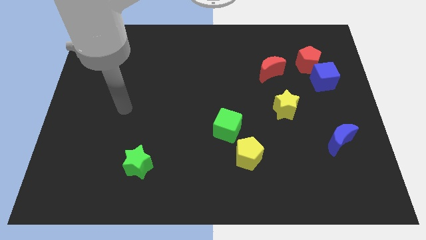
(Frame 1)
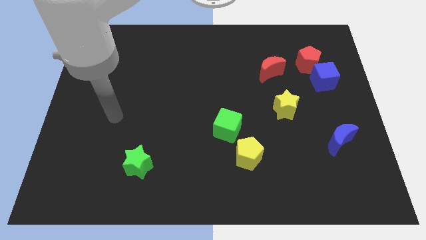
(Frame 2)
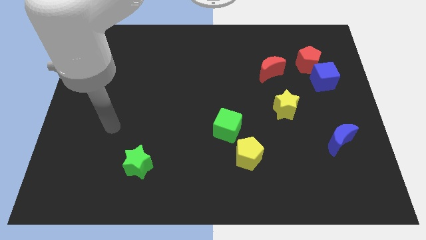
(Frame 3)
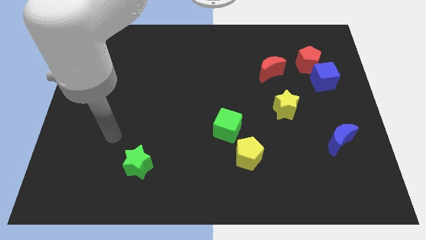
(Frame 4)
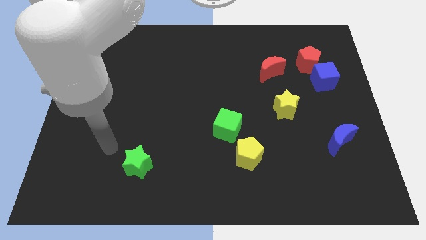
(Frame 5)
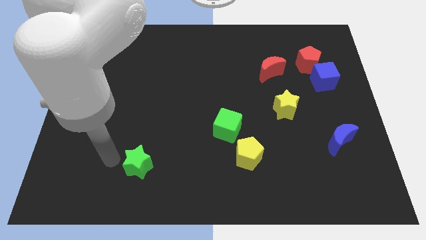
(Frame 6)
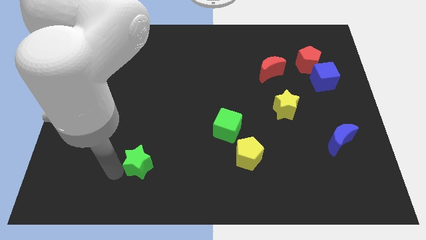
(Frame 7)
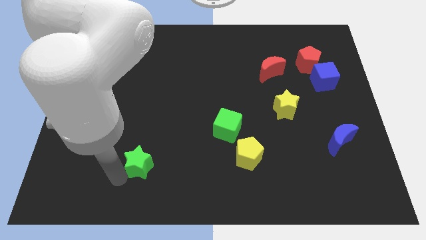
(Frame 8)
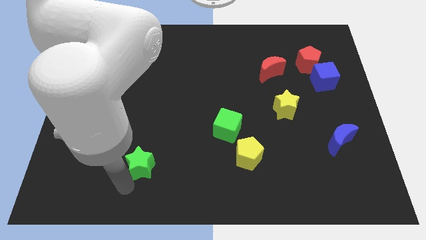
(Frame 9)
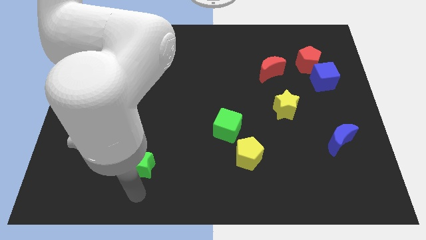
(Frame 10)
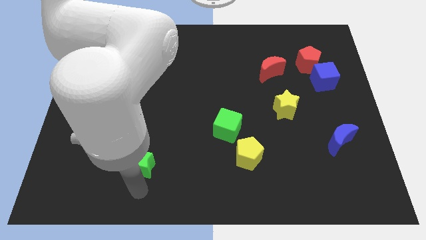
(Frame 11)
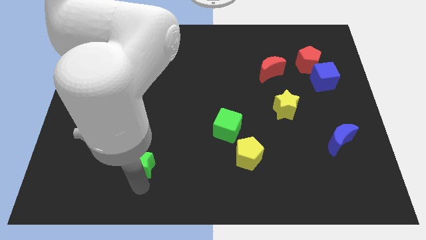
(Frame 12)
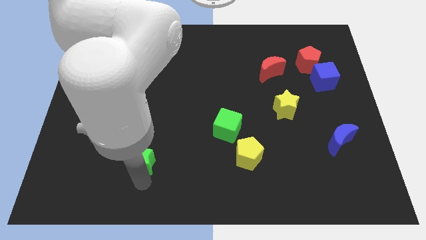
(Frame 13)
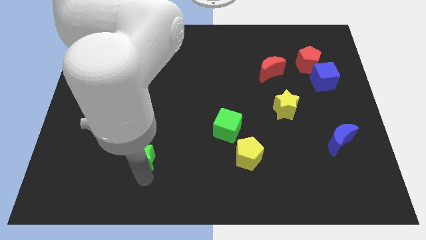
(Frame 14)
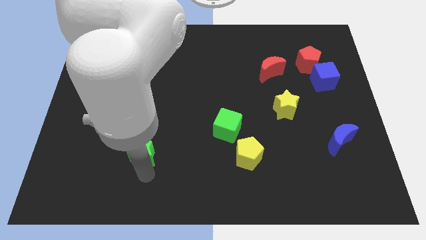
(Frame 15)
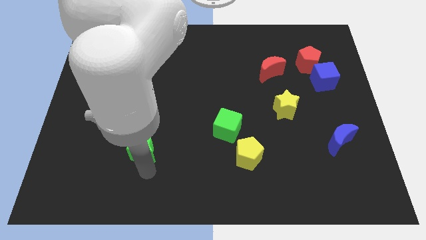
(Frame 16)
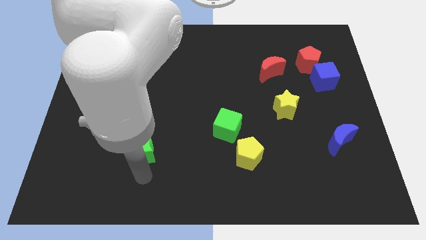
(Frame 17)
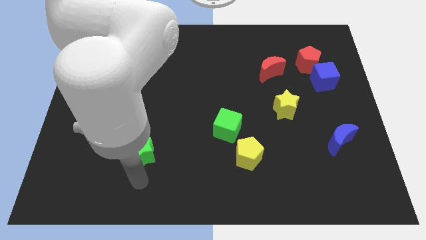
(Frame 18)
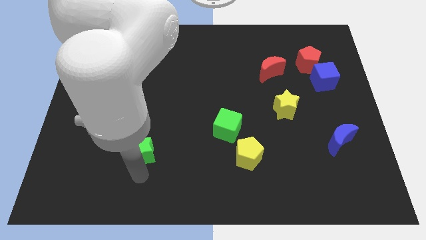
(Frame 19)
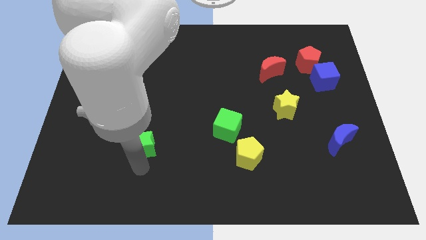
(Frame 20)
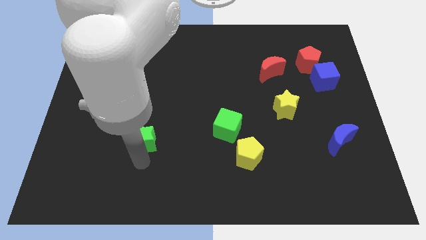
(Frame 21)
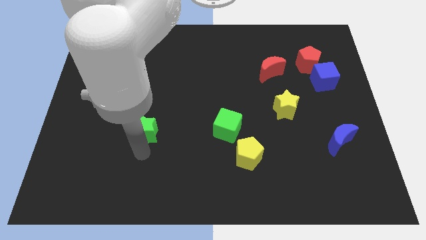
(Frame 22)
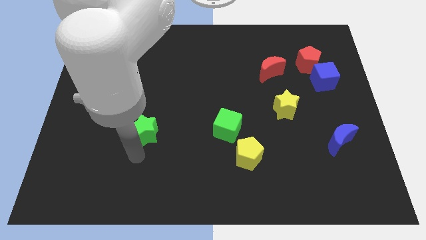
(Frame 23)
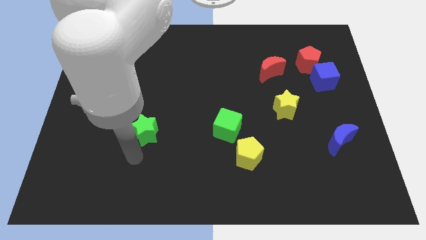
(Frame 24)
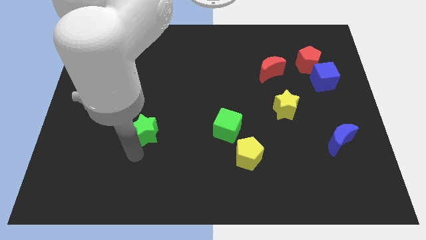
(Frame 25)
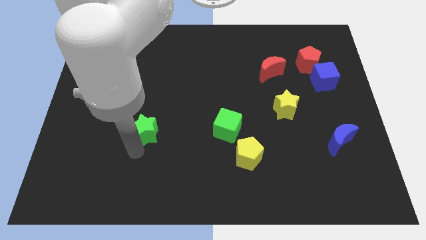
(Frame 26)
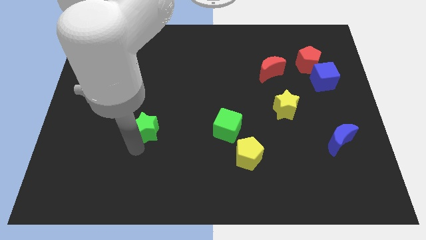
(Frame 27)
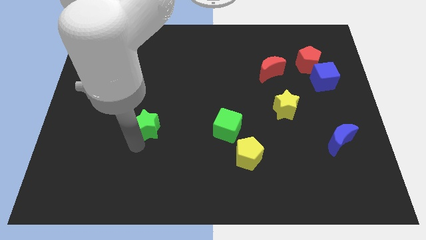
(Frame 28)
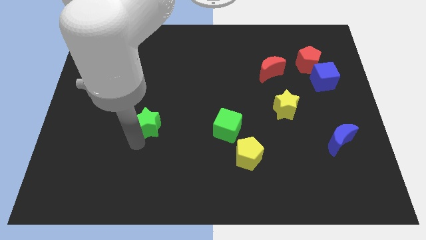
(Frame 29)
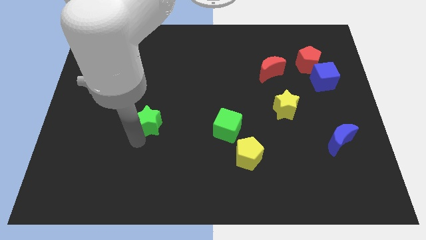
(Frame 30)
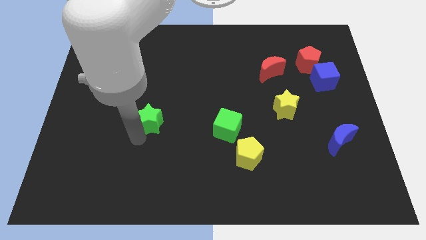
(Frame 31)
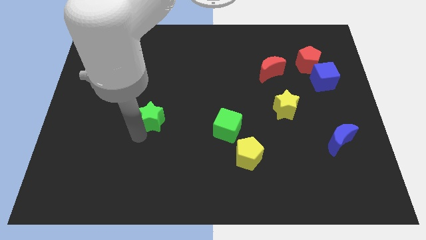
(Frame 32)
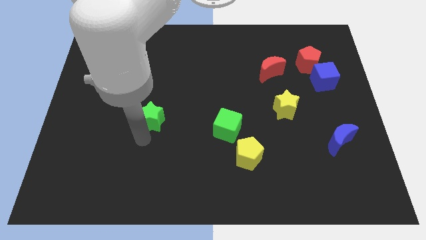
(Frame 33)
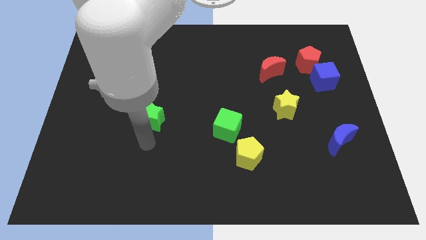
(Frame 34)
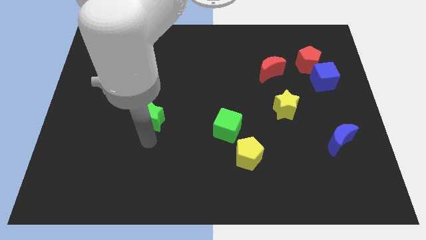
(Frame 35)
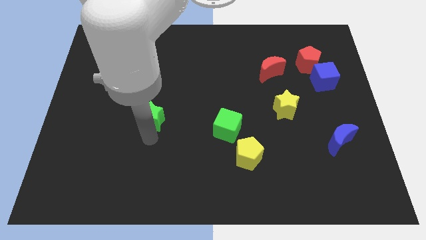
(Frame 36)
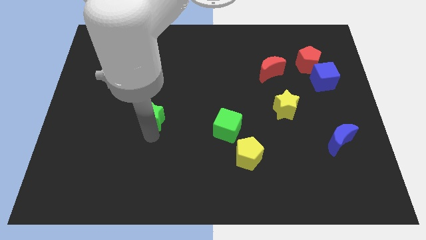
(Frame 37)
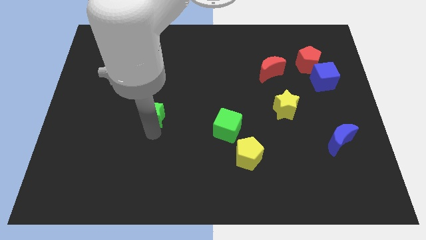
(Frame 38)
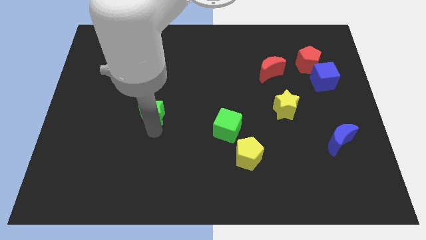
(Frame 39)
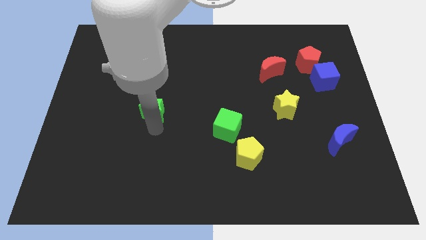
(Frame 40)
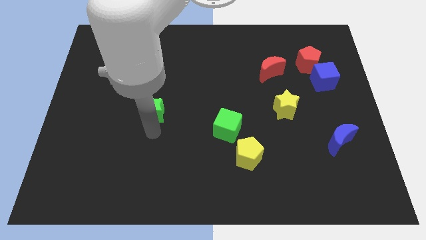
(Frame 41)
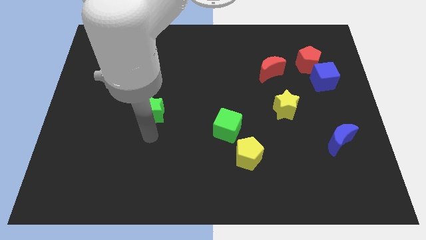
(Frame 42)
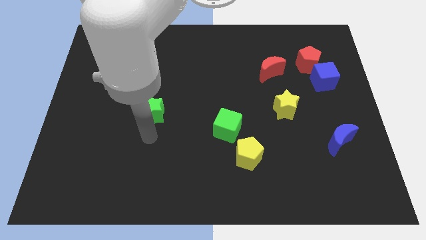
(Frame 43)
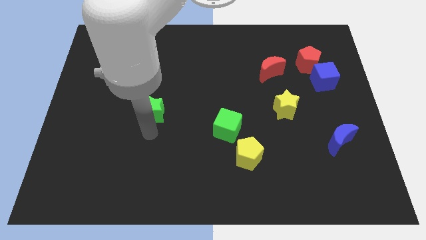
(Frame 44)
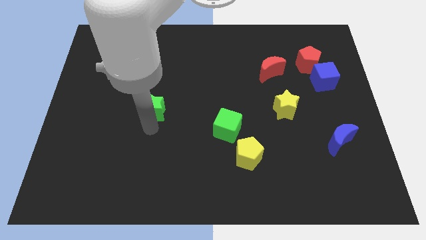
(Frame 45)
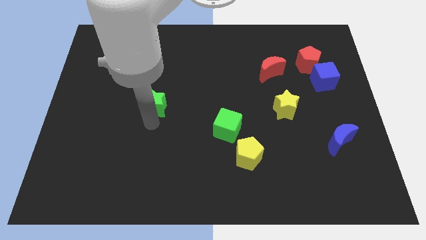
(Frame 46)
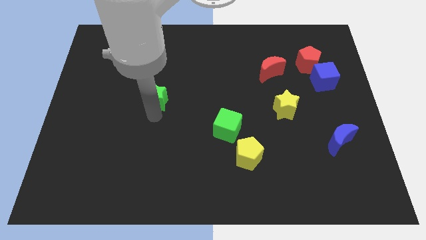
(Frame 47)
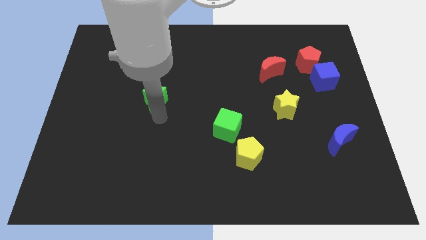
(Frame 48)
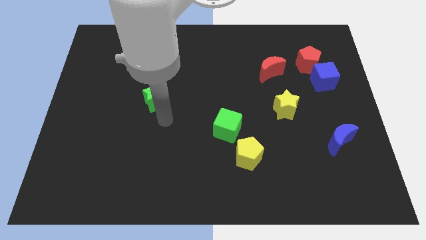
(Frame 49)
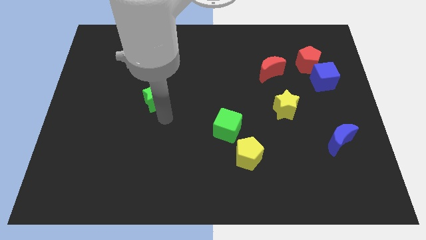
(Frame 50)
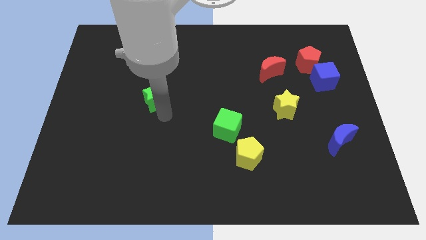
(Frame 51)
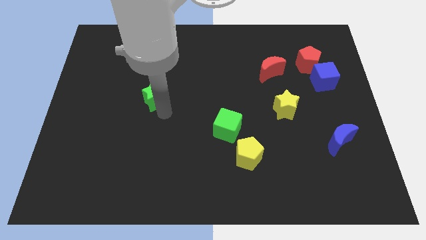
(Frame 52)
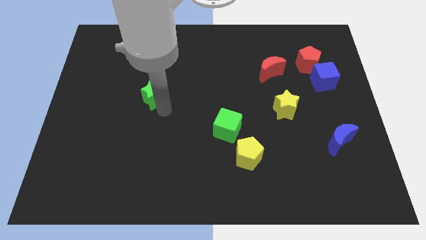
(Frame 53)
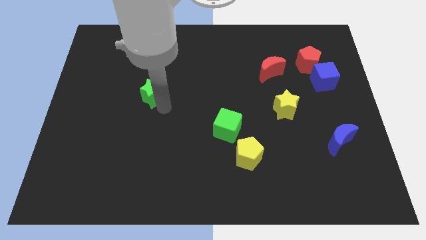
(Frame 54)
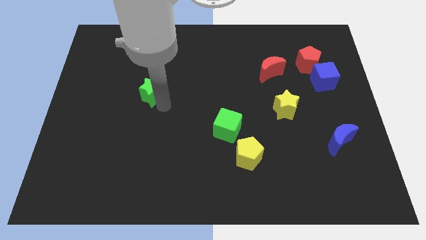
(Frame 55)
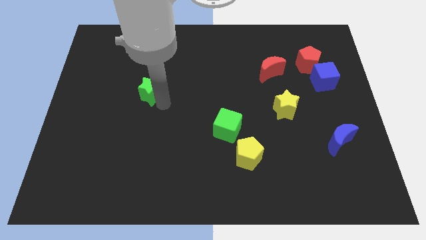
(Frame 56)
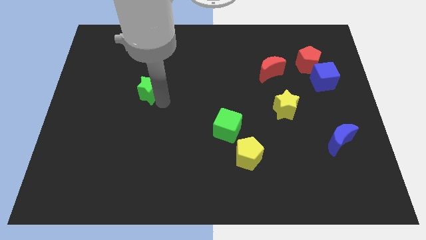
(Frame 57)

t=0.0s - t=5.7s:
push the green star upwards

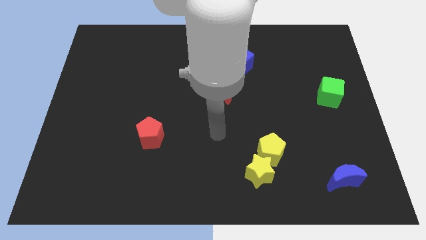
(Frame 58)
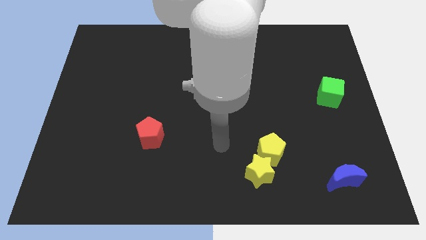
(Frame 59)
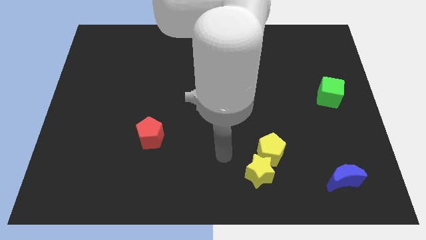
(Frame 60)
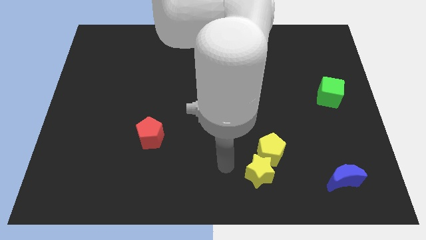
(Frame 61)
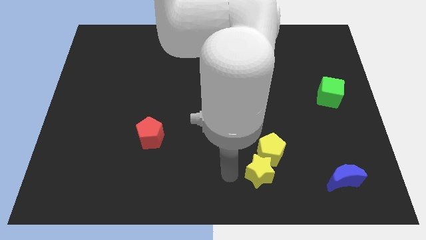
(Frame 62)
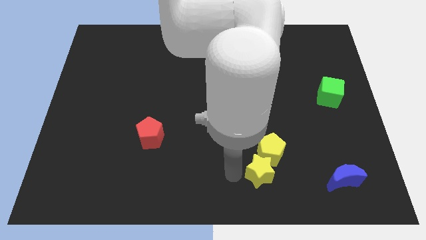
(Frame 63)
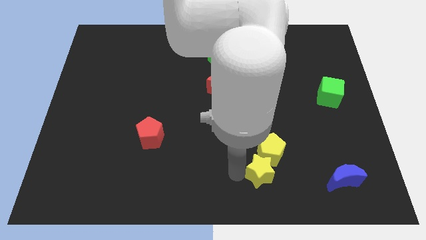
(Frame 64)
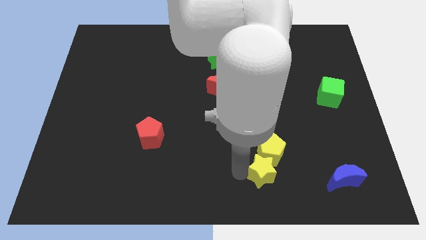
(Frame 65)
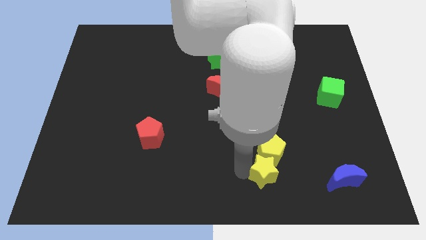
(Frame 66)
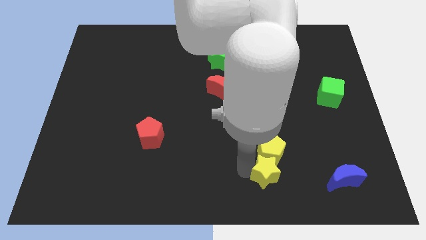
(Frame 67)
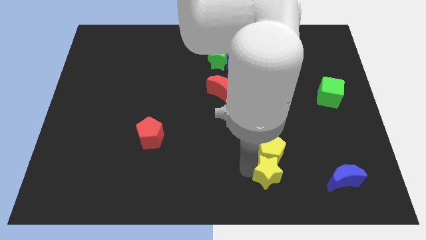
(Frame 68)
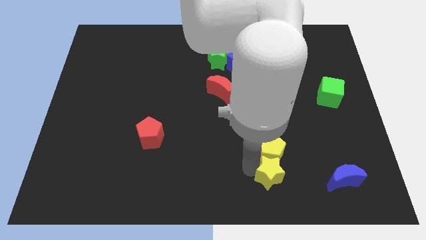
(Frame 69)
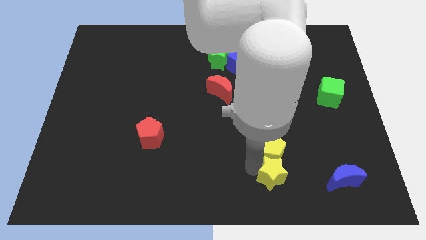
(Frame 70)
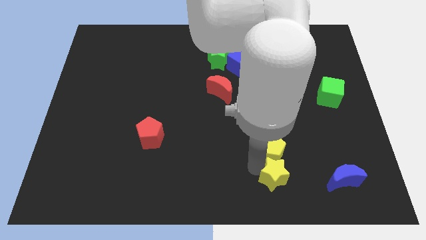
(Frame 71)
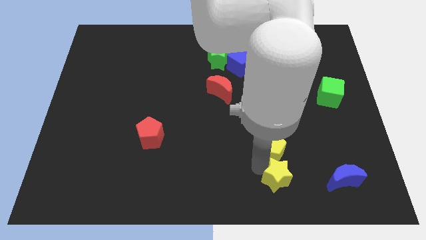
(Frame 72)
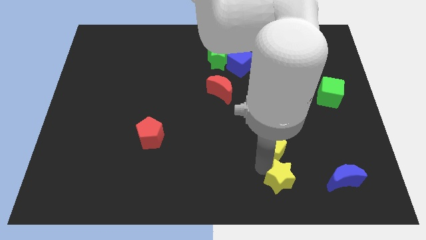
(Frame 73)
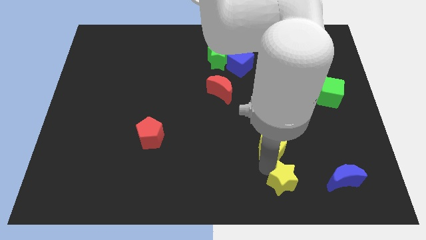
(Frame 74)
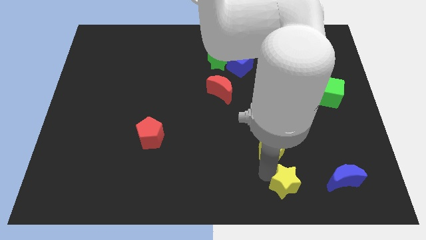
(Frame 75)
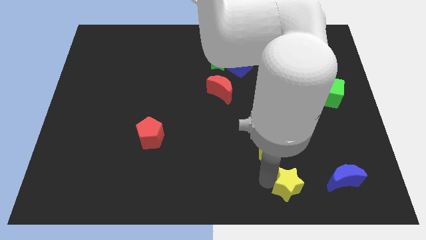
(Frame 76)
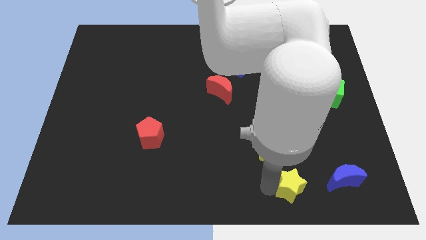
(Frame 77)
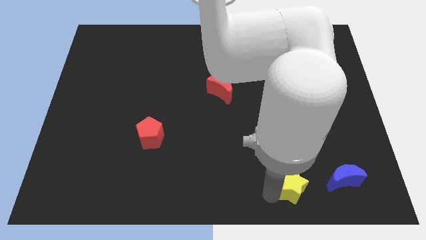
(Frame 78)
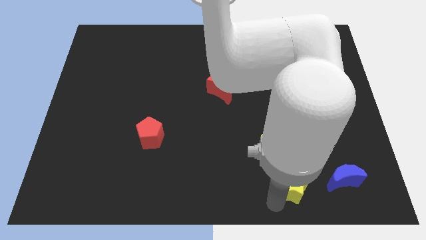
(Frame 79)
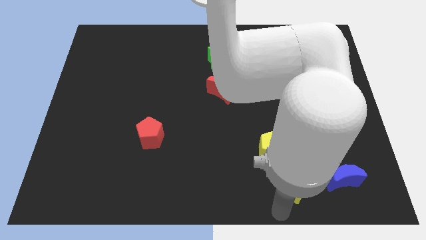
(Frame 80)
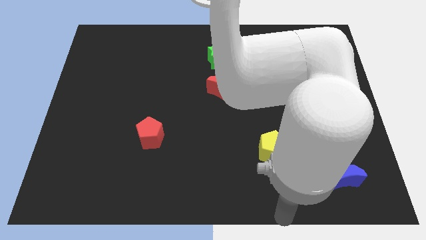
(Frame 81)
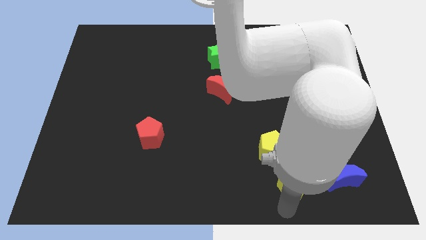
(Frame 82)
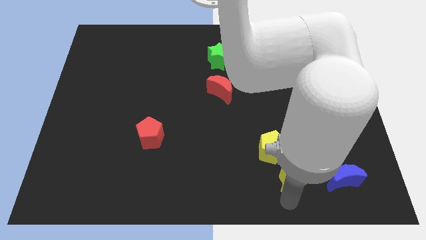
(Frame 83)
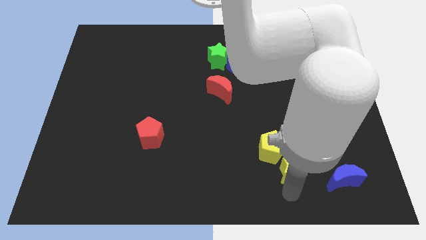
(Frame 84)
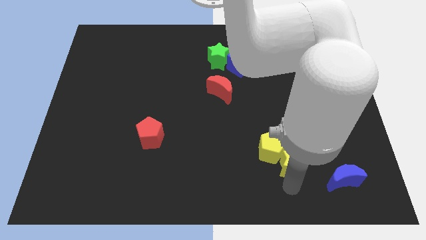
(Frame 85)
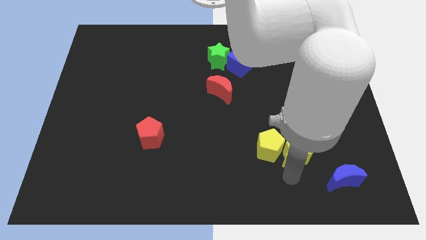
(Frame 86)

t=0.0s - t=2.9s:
move the yellow star up and right a bit
